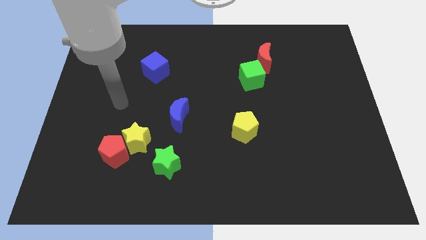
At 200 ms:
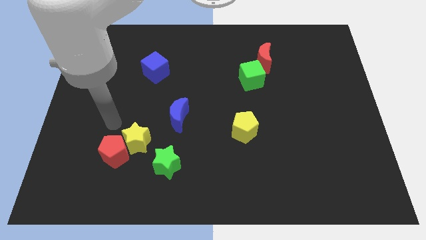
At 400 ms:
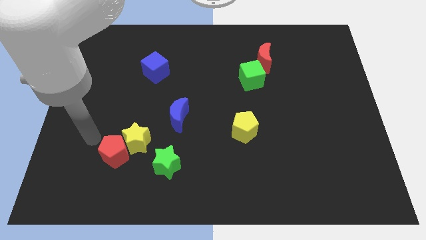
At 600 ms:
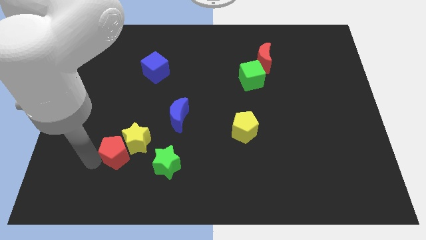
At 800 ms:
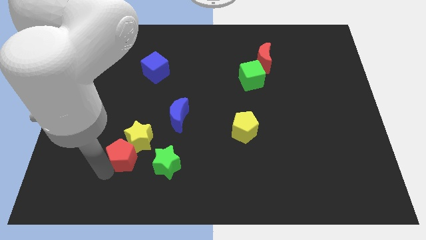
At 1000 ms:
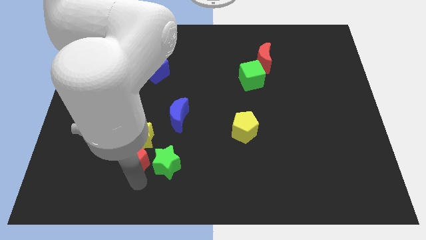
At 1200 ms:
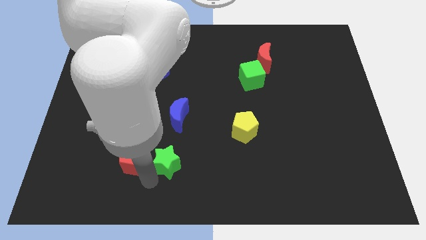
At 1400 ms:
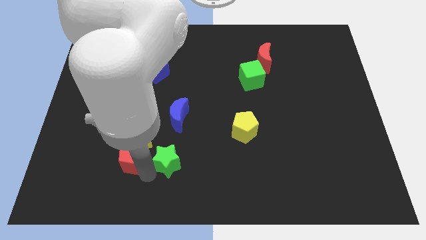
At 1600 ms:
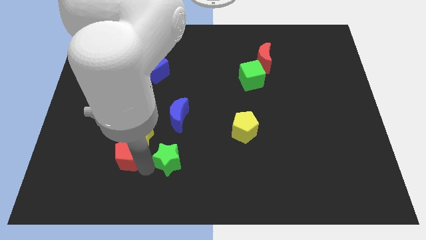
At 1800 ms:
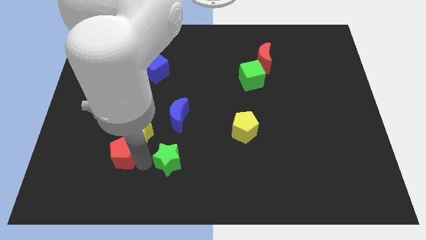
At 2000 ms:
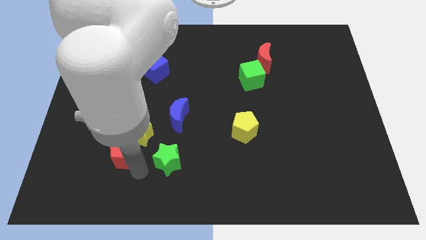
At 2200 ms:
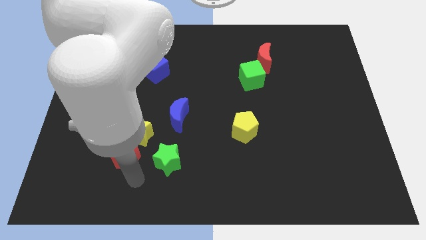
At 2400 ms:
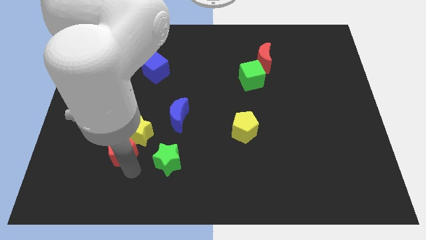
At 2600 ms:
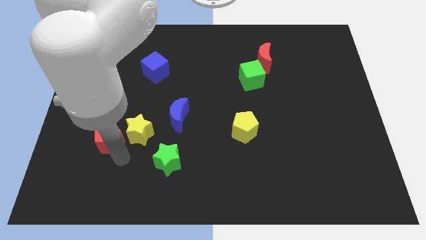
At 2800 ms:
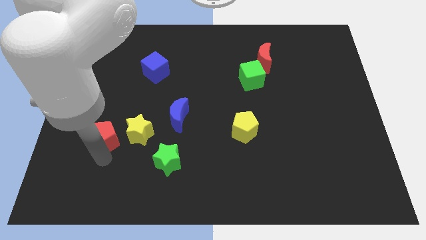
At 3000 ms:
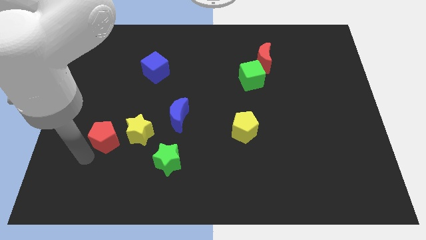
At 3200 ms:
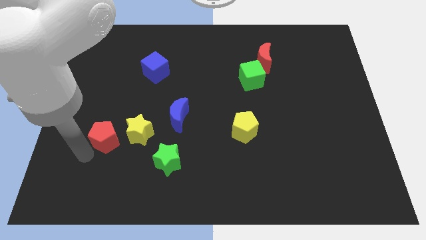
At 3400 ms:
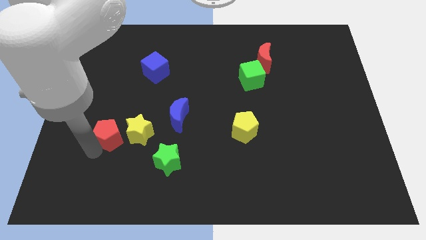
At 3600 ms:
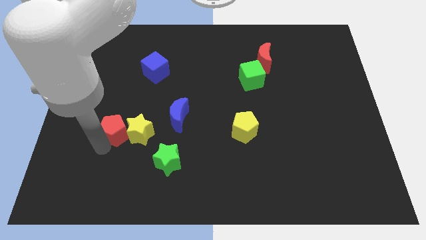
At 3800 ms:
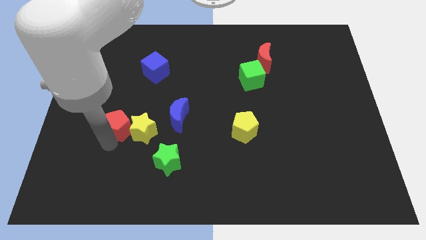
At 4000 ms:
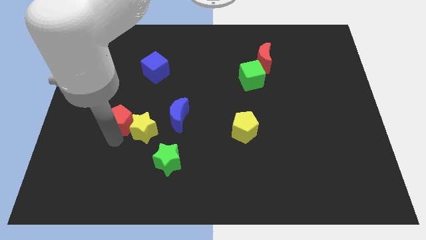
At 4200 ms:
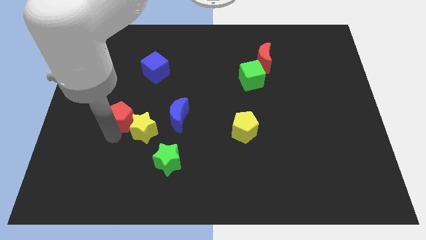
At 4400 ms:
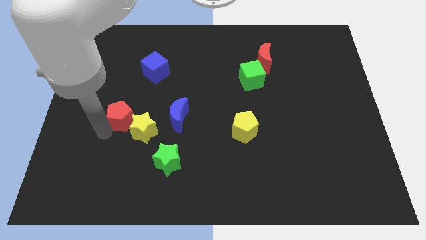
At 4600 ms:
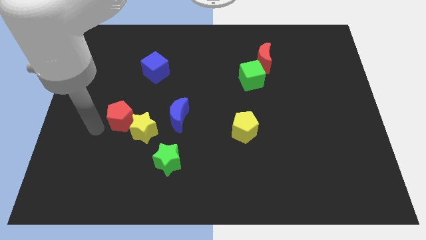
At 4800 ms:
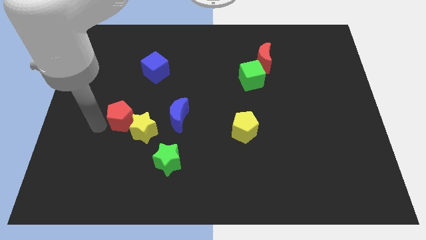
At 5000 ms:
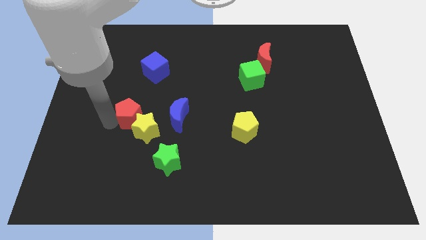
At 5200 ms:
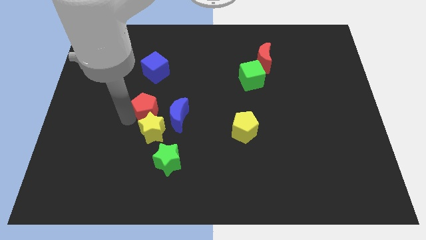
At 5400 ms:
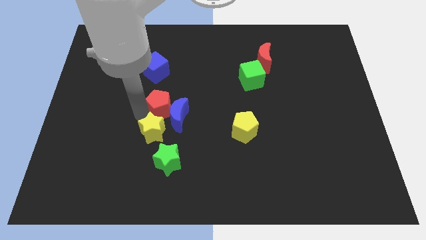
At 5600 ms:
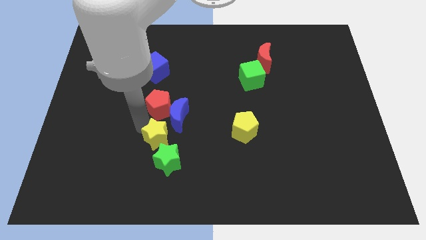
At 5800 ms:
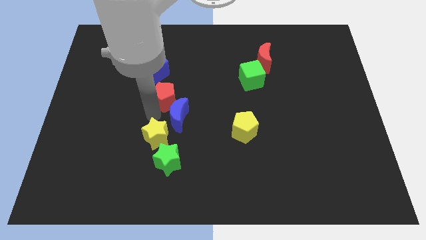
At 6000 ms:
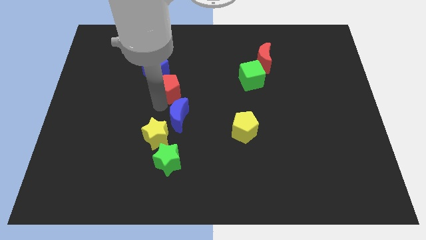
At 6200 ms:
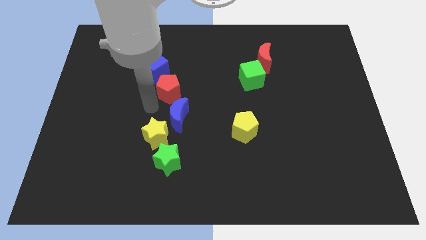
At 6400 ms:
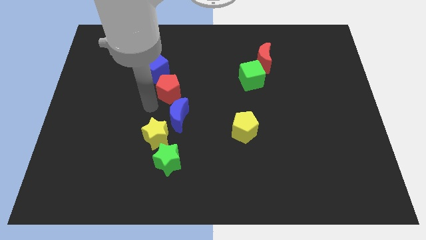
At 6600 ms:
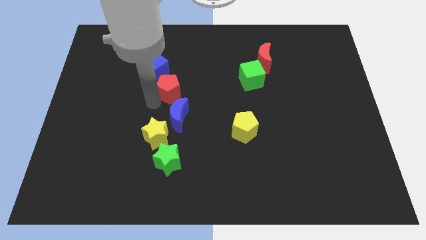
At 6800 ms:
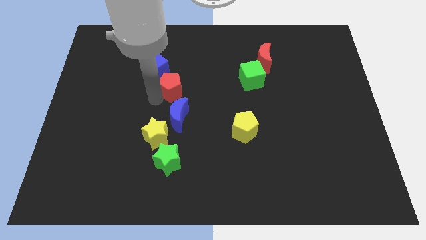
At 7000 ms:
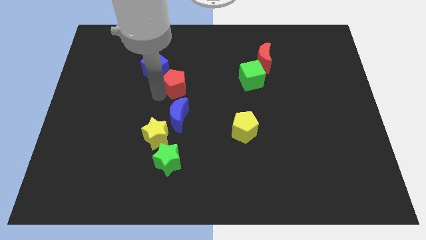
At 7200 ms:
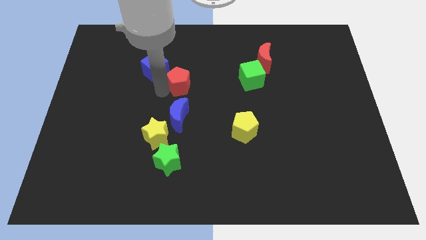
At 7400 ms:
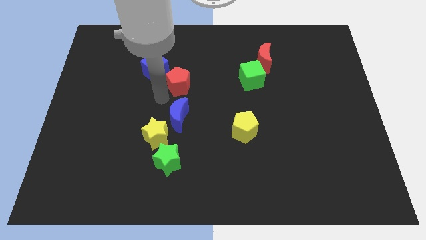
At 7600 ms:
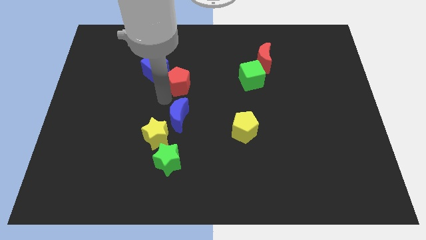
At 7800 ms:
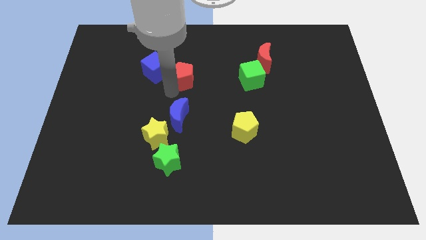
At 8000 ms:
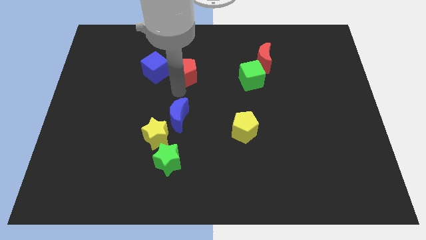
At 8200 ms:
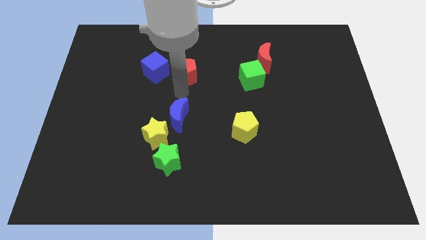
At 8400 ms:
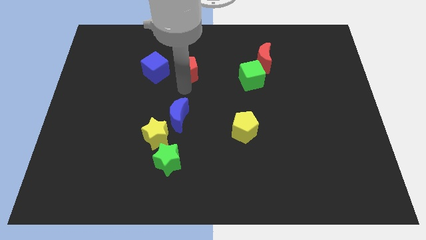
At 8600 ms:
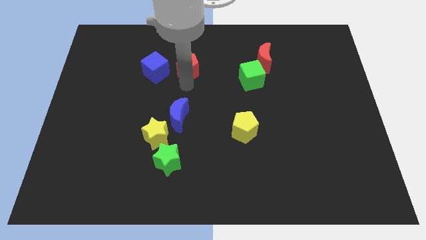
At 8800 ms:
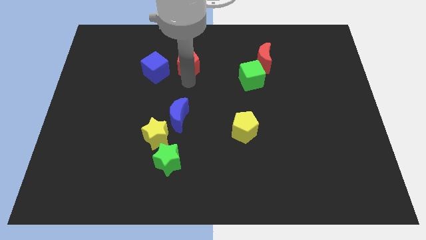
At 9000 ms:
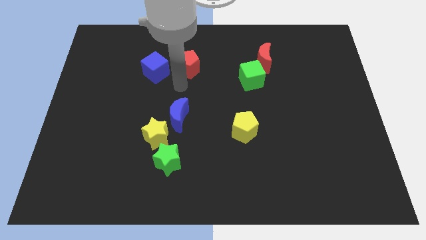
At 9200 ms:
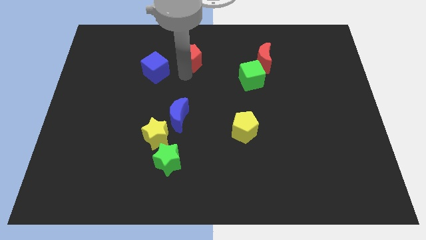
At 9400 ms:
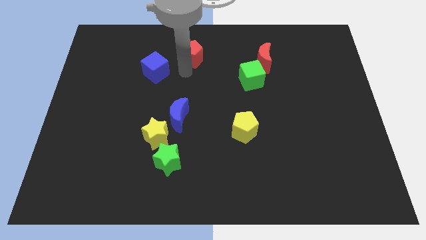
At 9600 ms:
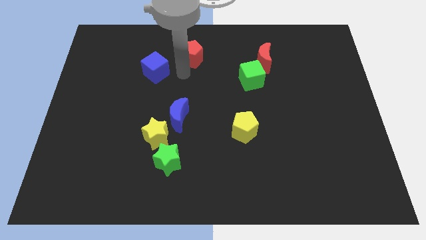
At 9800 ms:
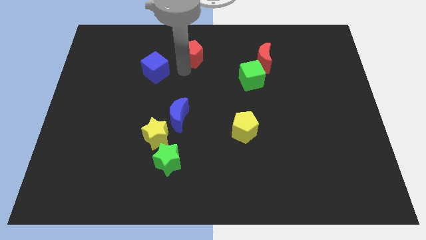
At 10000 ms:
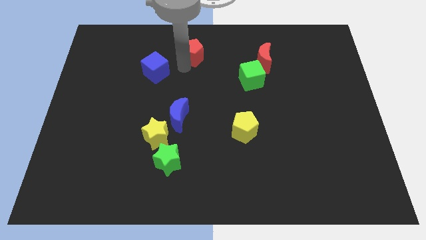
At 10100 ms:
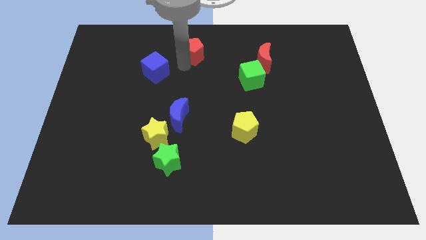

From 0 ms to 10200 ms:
put the red pentagon to the towards your base

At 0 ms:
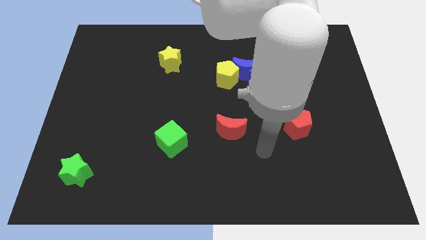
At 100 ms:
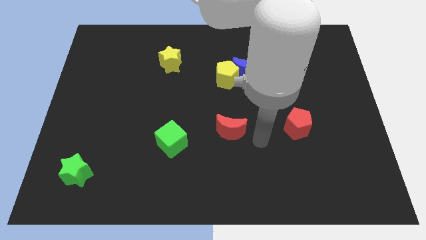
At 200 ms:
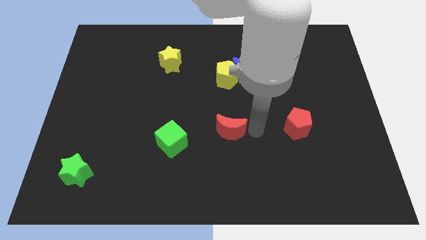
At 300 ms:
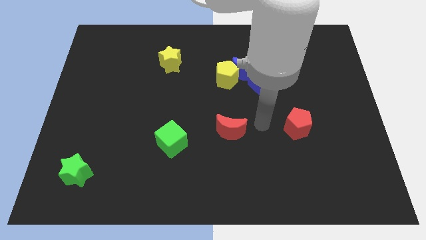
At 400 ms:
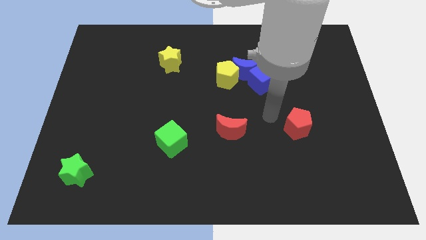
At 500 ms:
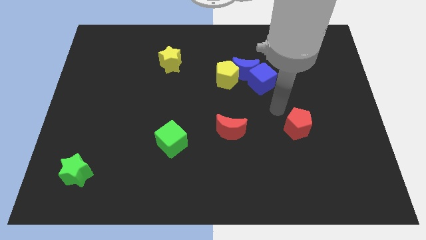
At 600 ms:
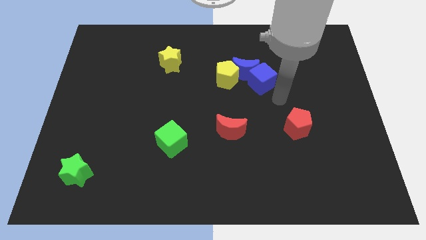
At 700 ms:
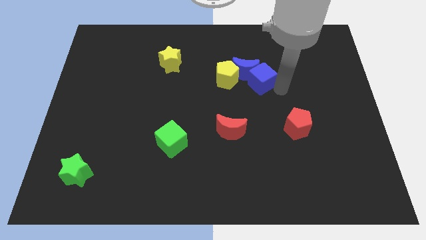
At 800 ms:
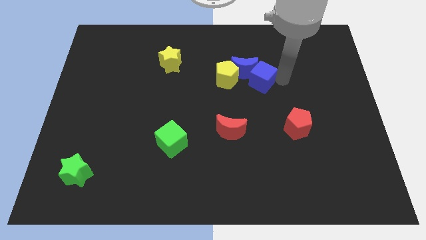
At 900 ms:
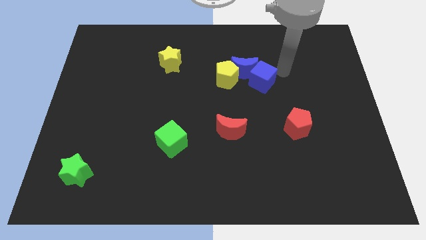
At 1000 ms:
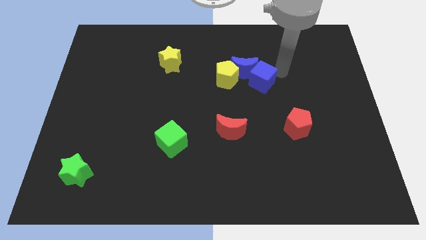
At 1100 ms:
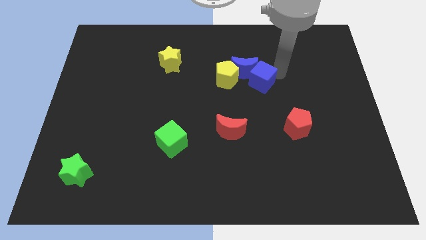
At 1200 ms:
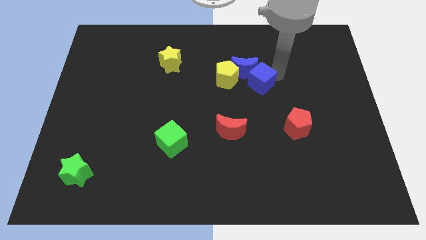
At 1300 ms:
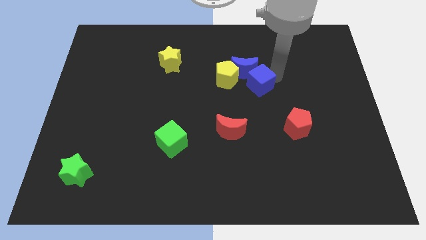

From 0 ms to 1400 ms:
move the blue cube to the center of the board
